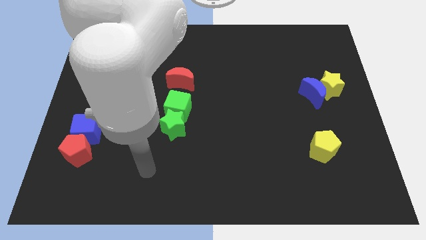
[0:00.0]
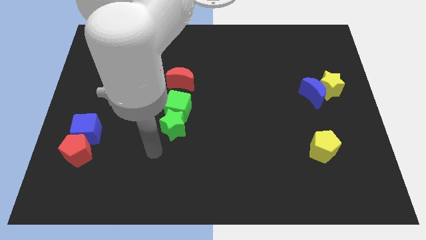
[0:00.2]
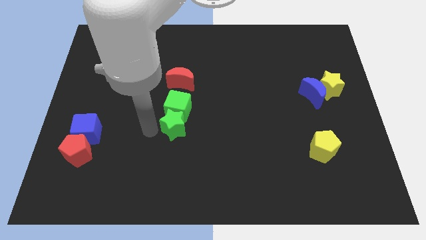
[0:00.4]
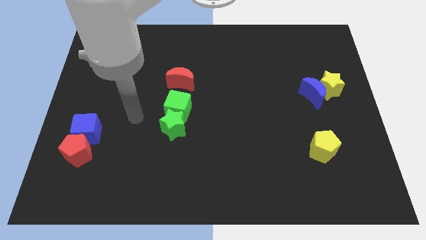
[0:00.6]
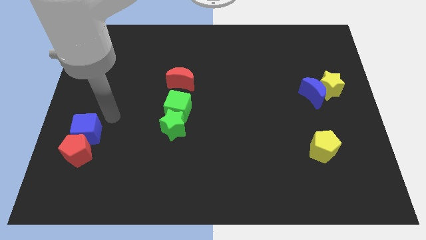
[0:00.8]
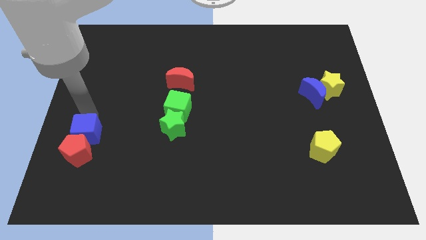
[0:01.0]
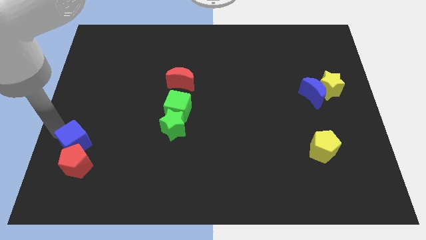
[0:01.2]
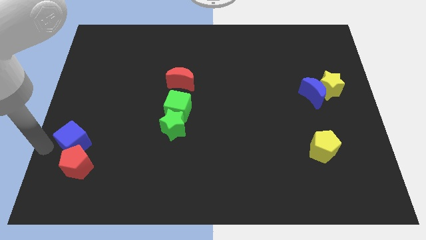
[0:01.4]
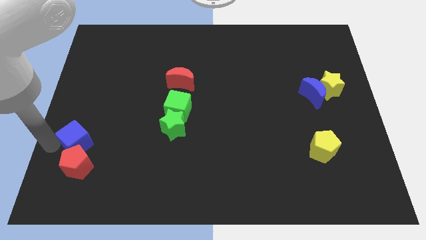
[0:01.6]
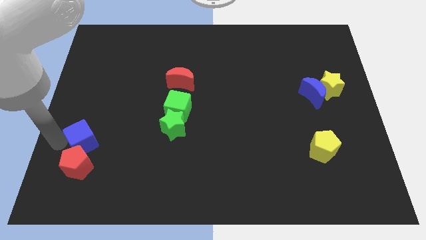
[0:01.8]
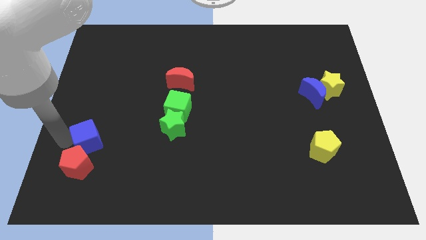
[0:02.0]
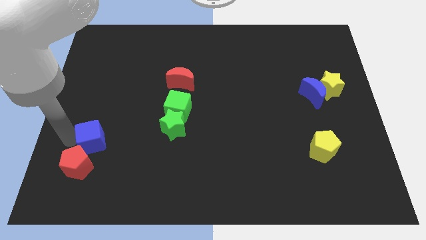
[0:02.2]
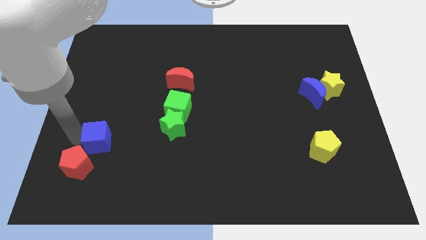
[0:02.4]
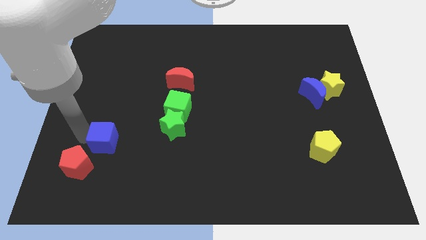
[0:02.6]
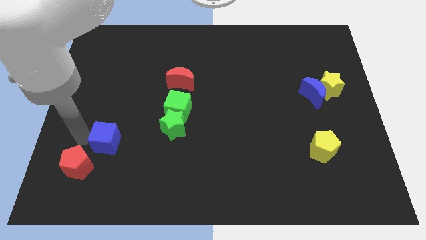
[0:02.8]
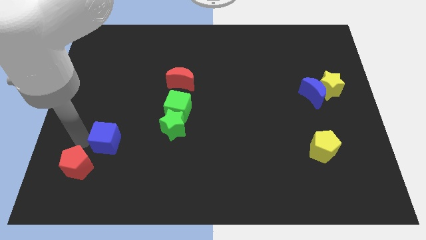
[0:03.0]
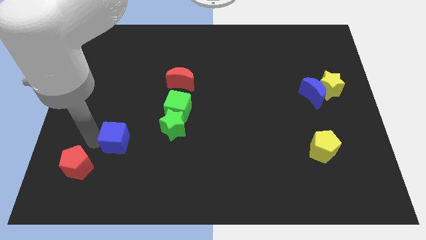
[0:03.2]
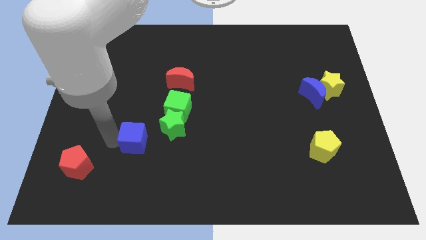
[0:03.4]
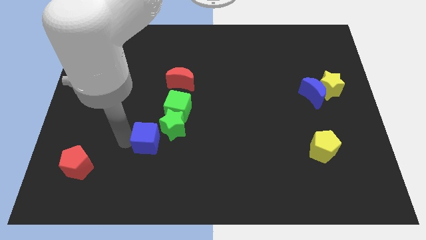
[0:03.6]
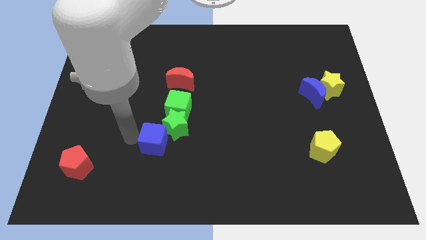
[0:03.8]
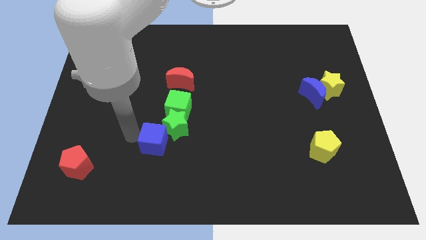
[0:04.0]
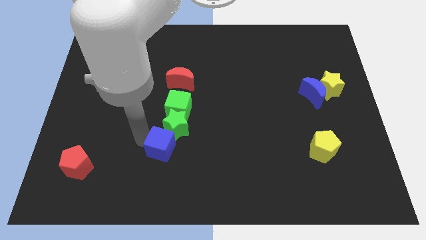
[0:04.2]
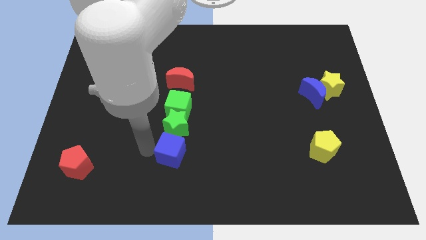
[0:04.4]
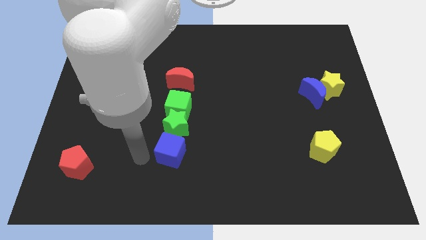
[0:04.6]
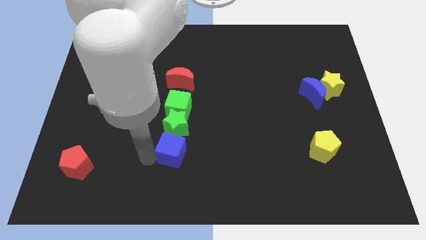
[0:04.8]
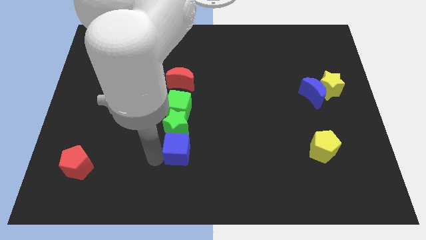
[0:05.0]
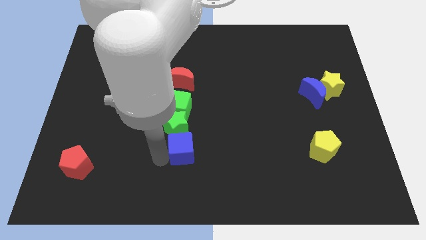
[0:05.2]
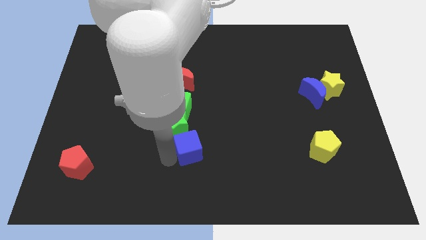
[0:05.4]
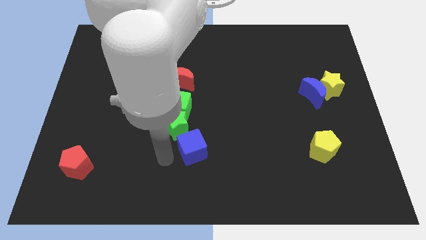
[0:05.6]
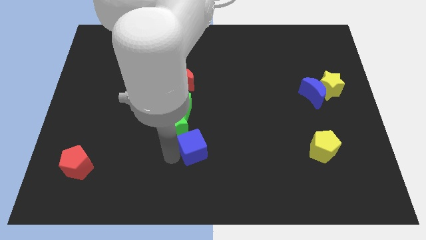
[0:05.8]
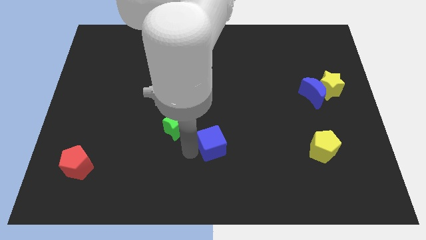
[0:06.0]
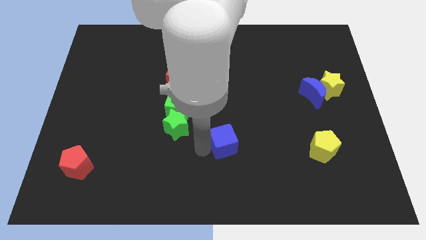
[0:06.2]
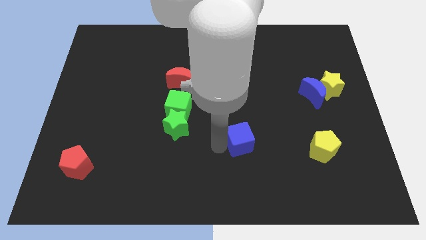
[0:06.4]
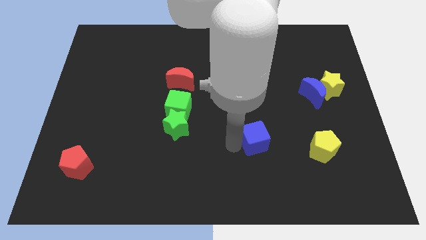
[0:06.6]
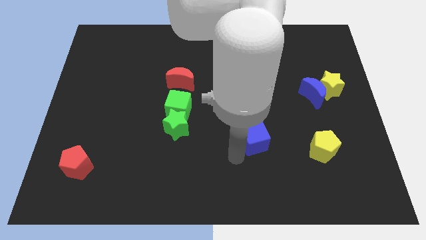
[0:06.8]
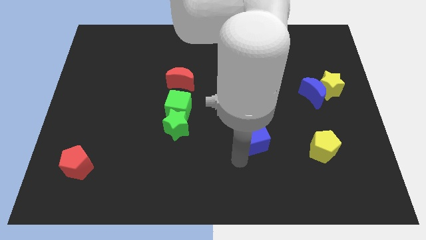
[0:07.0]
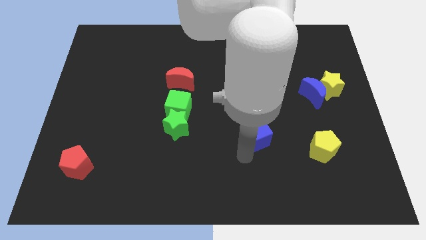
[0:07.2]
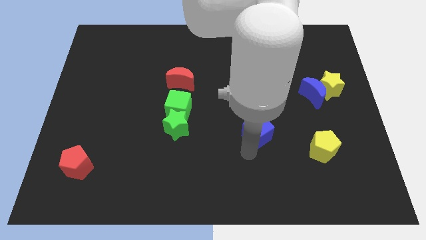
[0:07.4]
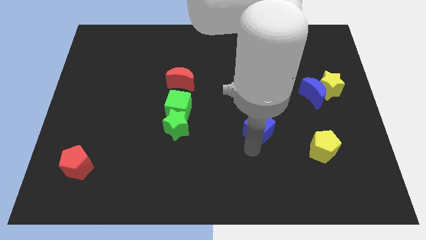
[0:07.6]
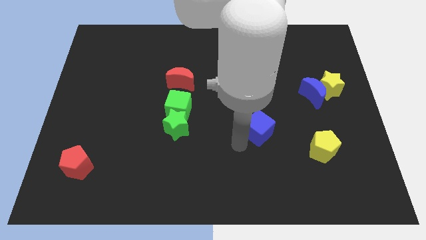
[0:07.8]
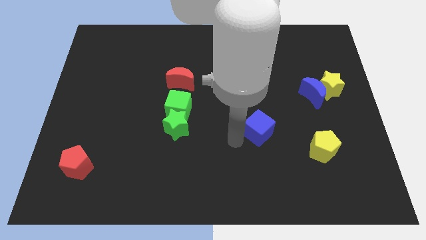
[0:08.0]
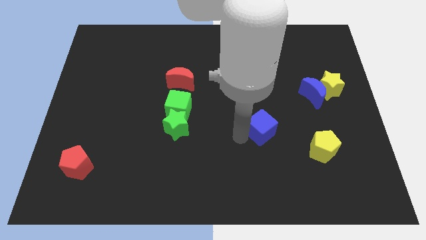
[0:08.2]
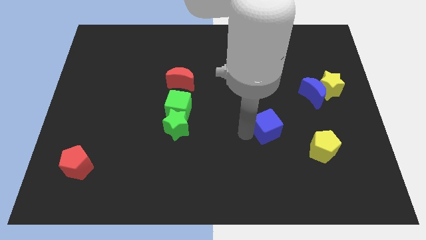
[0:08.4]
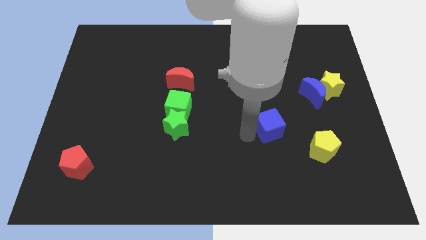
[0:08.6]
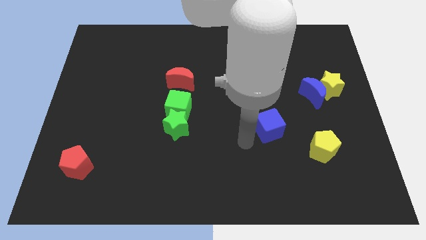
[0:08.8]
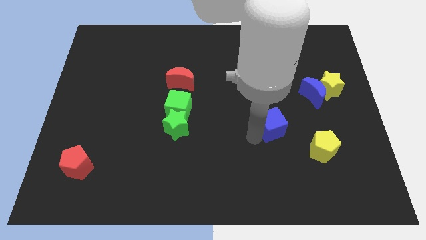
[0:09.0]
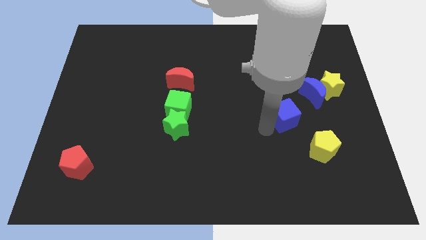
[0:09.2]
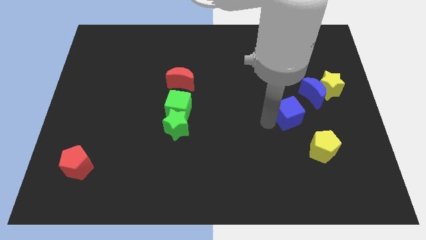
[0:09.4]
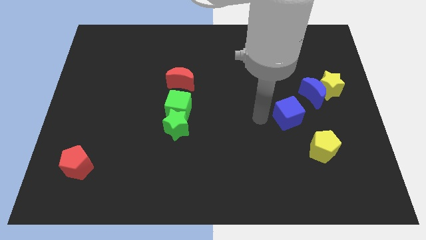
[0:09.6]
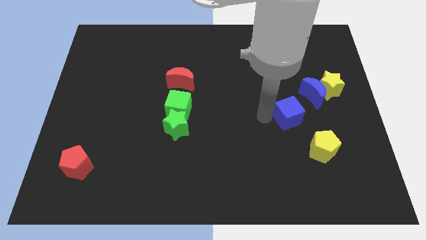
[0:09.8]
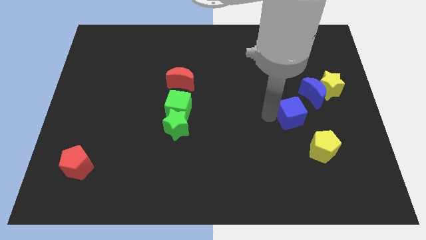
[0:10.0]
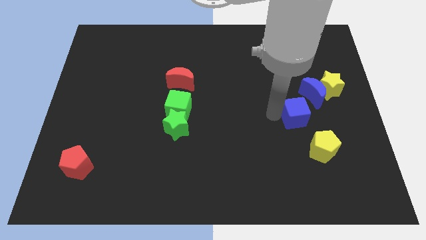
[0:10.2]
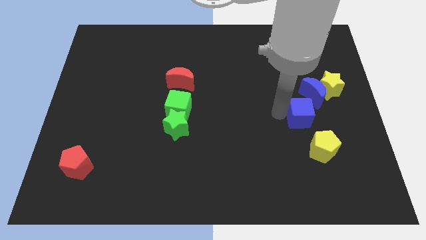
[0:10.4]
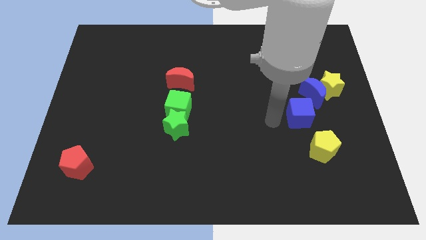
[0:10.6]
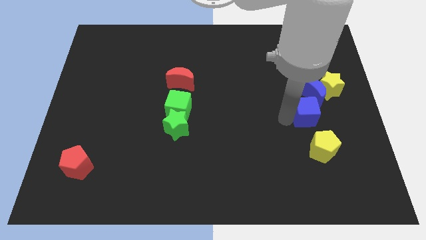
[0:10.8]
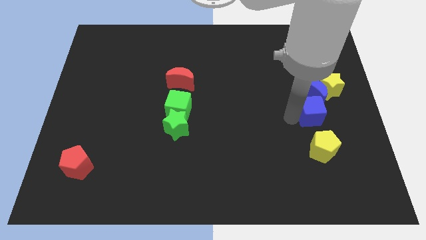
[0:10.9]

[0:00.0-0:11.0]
push the blue cube next to the blue moon
